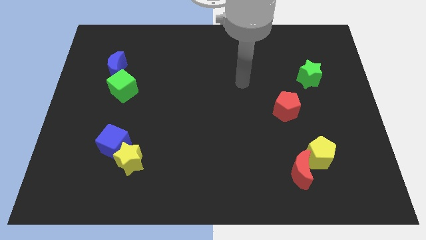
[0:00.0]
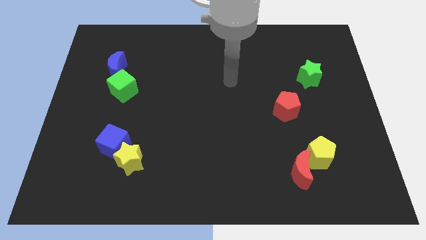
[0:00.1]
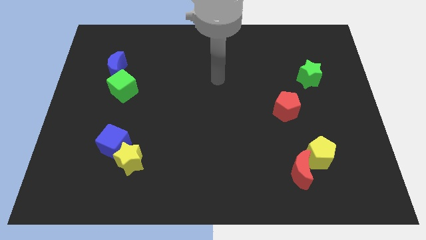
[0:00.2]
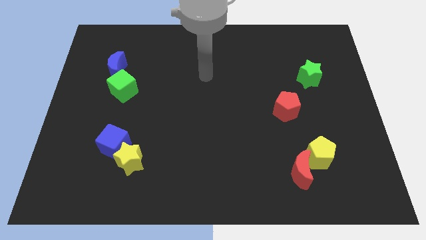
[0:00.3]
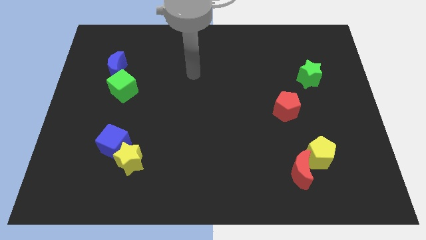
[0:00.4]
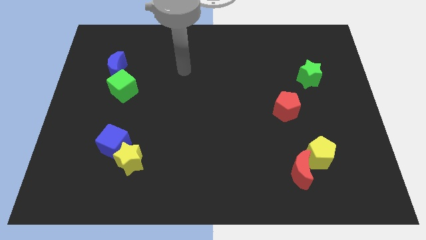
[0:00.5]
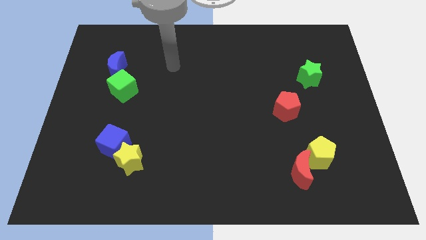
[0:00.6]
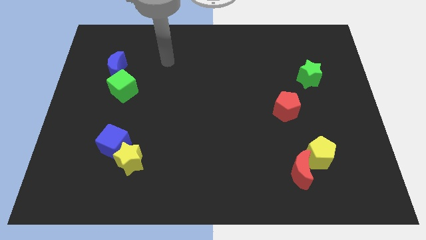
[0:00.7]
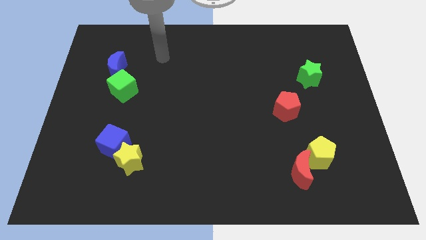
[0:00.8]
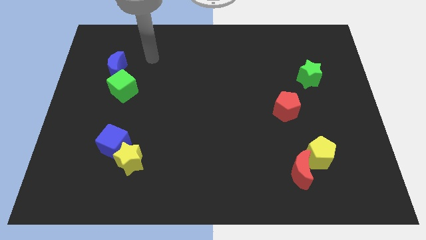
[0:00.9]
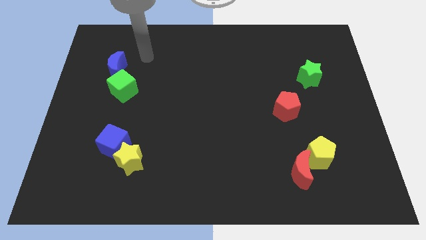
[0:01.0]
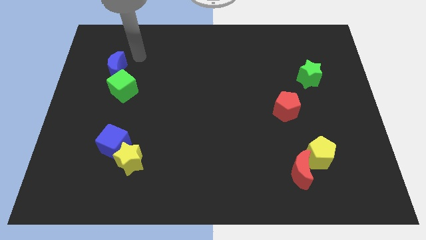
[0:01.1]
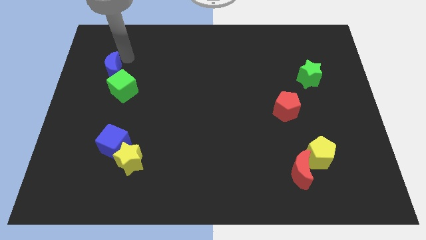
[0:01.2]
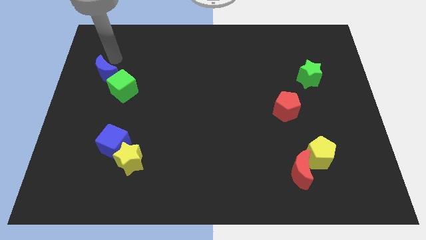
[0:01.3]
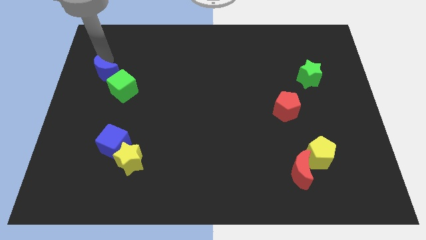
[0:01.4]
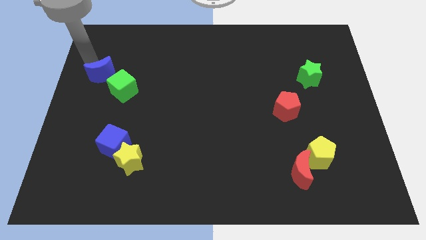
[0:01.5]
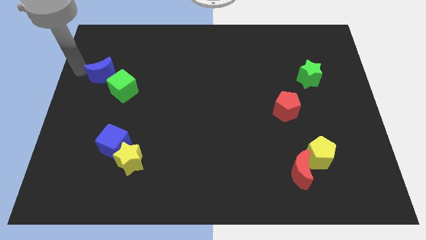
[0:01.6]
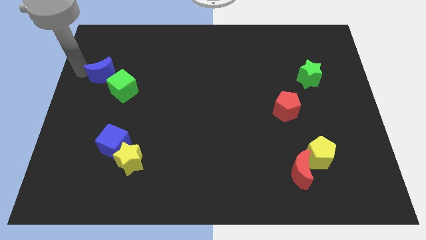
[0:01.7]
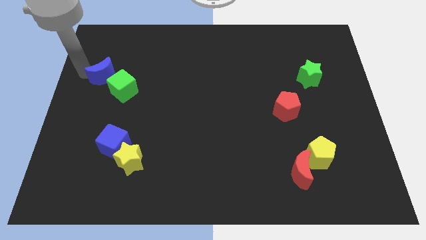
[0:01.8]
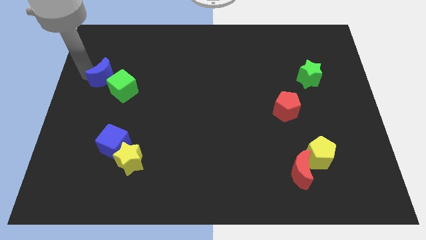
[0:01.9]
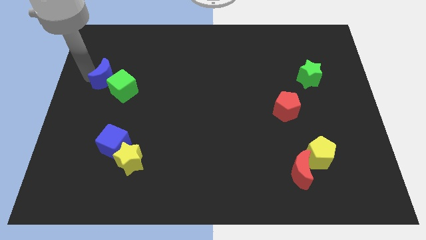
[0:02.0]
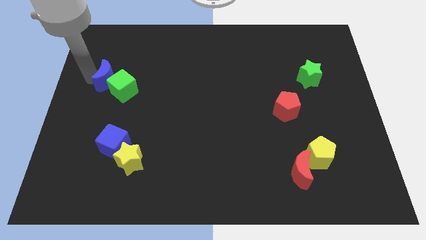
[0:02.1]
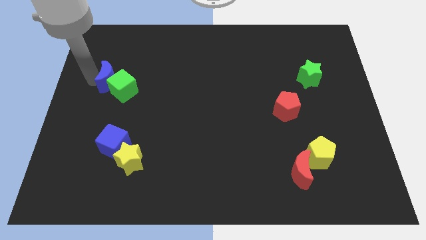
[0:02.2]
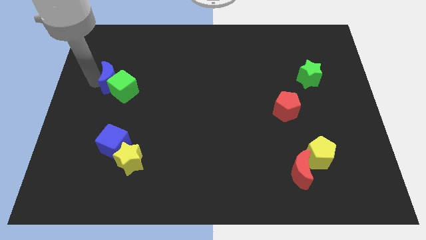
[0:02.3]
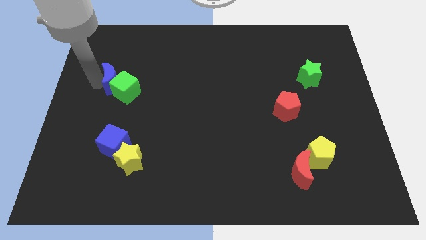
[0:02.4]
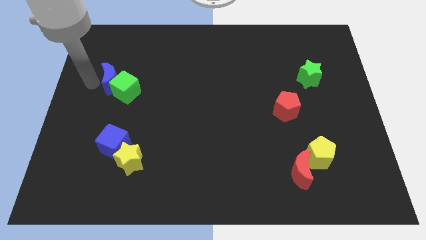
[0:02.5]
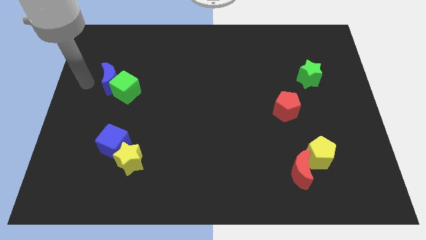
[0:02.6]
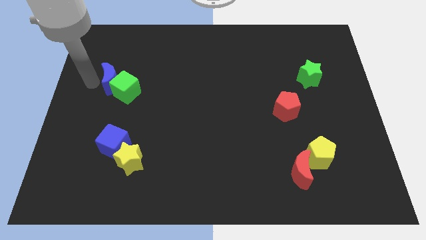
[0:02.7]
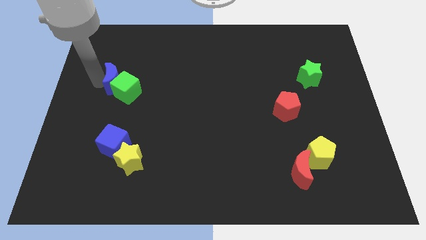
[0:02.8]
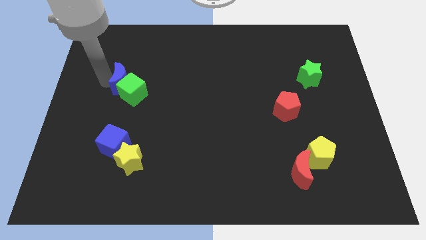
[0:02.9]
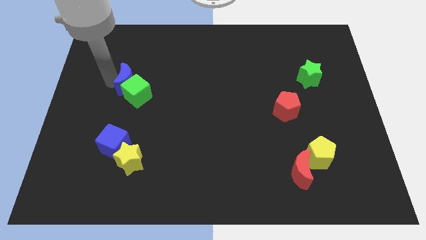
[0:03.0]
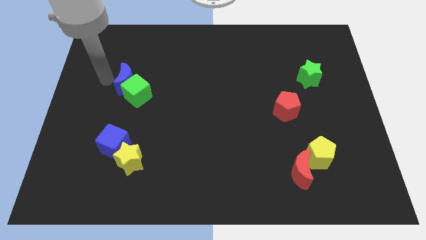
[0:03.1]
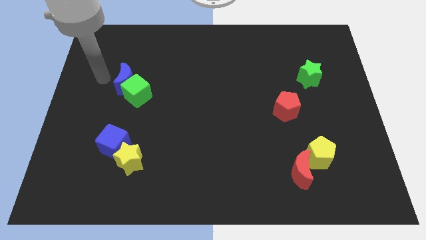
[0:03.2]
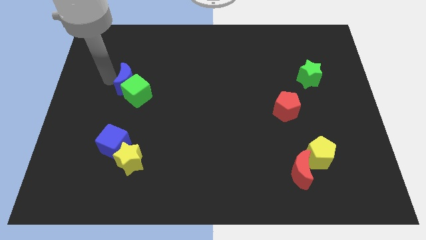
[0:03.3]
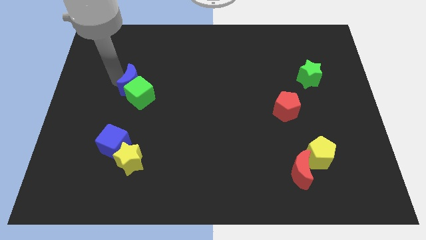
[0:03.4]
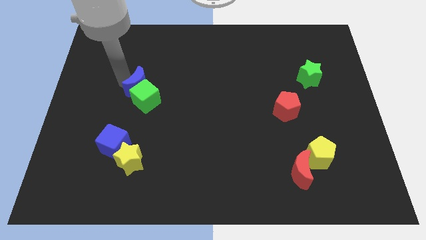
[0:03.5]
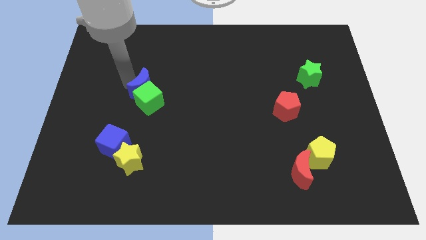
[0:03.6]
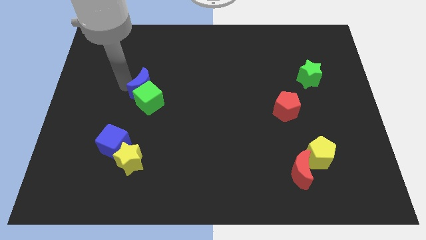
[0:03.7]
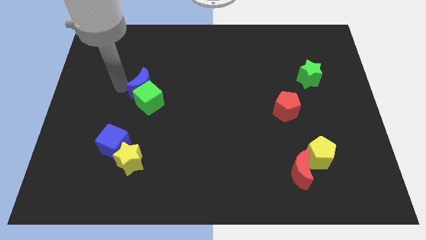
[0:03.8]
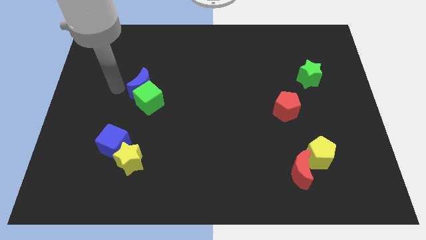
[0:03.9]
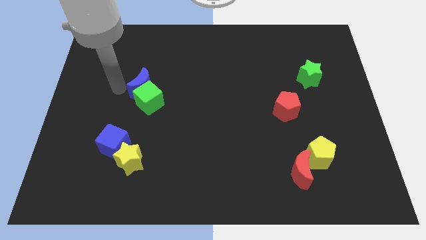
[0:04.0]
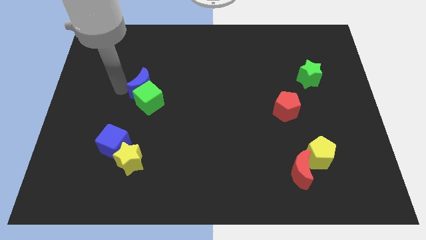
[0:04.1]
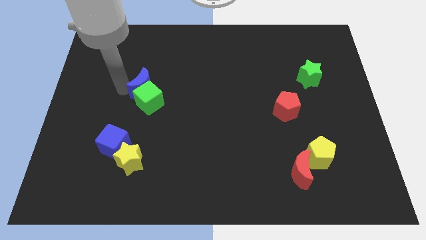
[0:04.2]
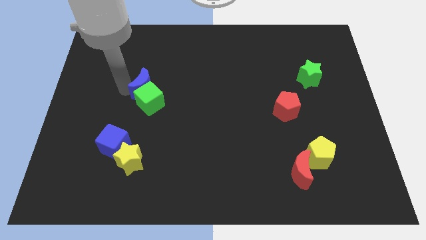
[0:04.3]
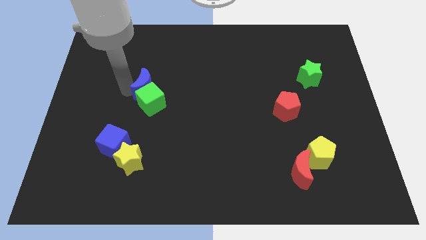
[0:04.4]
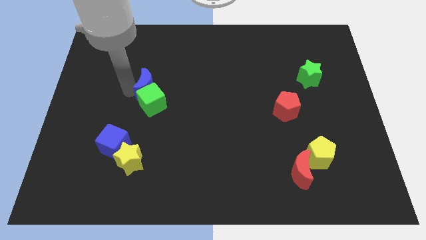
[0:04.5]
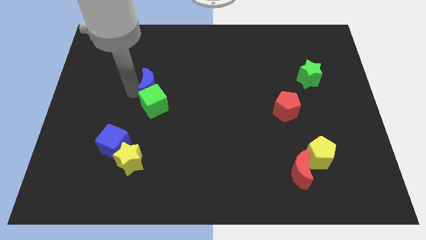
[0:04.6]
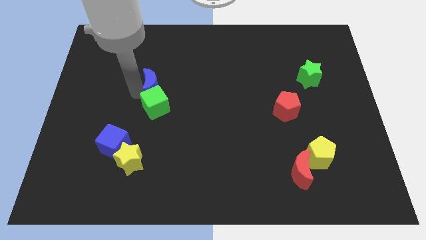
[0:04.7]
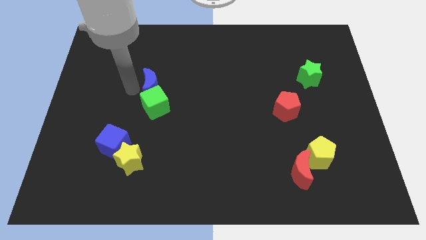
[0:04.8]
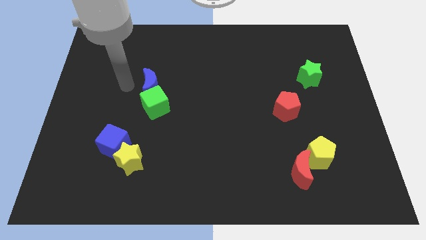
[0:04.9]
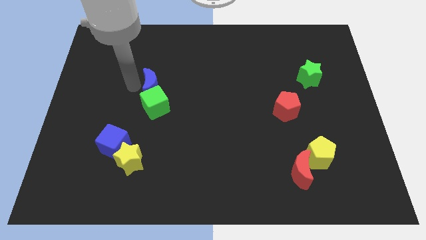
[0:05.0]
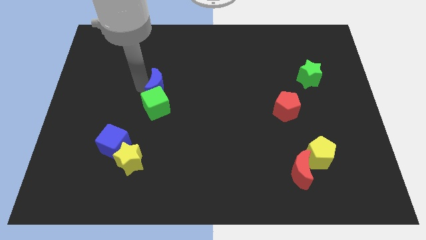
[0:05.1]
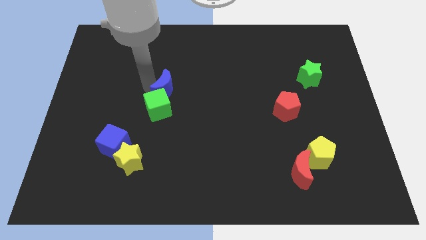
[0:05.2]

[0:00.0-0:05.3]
move the blue moon to the center of the board
